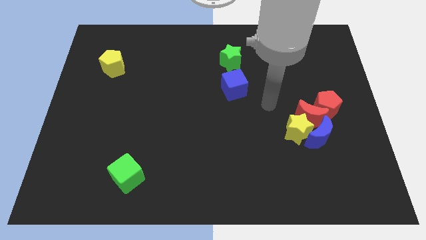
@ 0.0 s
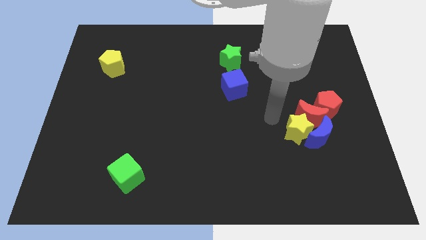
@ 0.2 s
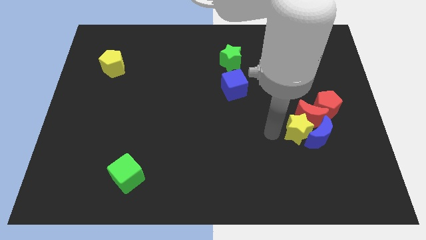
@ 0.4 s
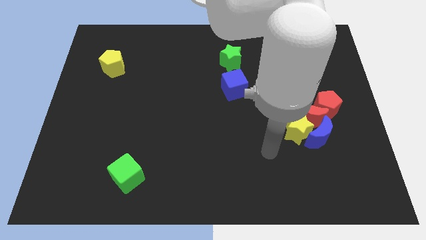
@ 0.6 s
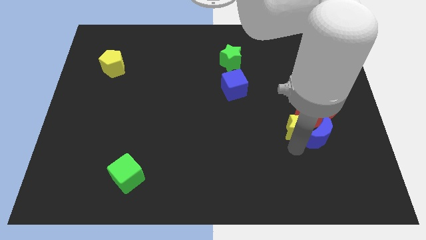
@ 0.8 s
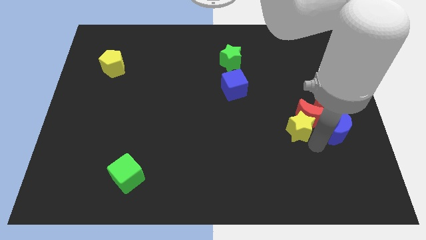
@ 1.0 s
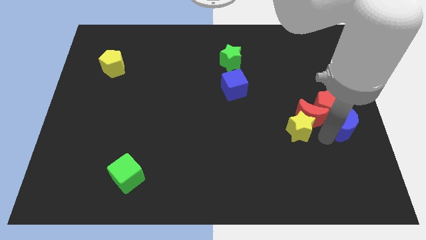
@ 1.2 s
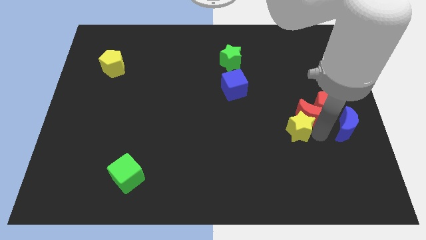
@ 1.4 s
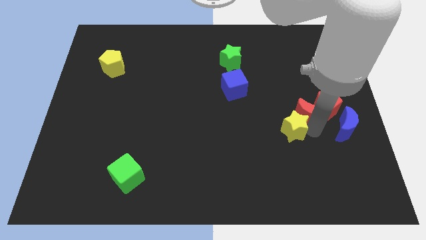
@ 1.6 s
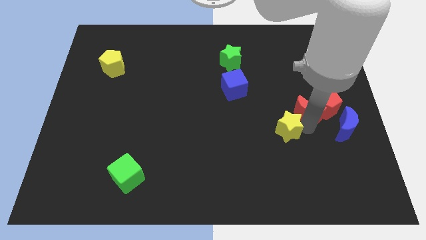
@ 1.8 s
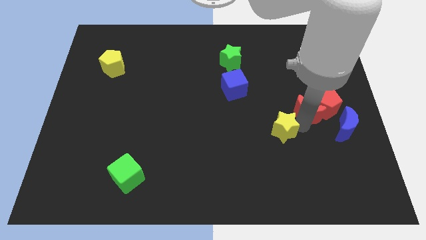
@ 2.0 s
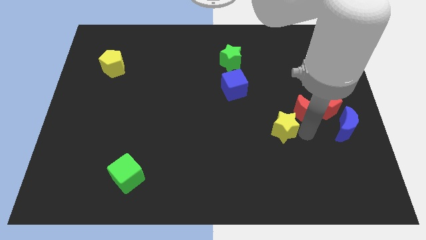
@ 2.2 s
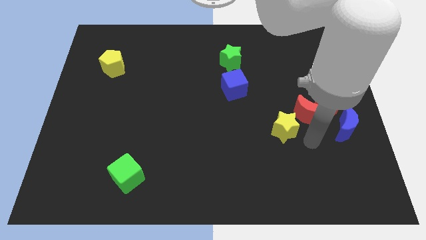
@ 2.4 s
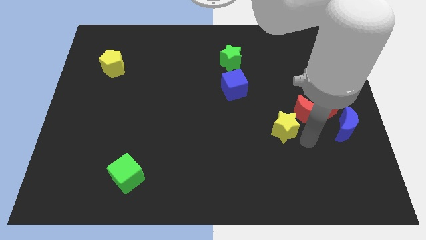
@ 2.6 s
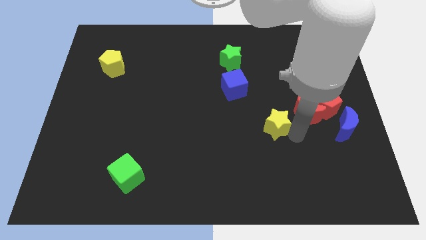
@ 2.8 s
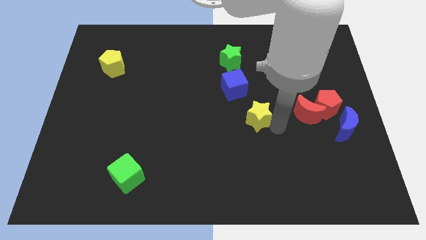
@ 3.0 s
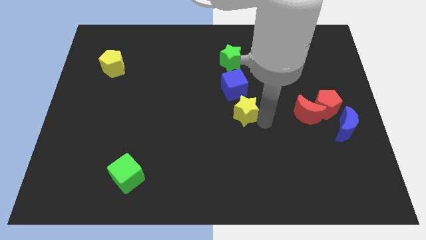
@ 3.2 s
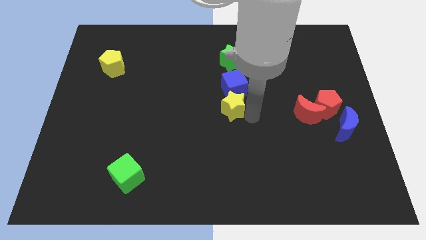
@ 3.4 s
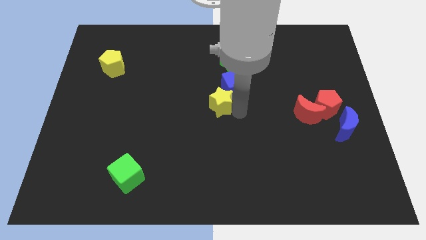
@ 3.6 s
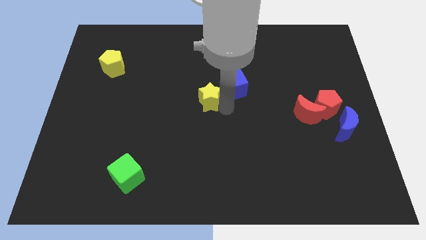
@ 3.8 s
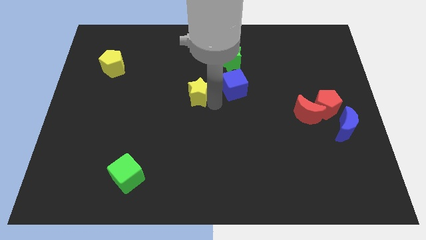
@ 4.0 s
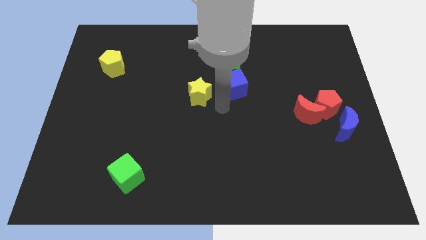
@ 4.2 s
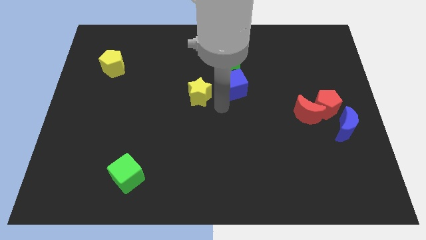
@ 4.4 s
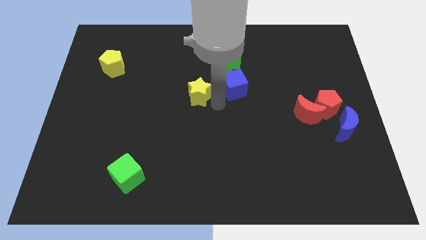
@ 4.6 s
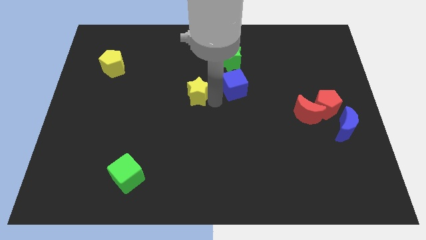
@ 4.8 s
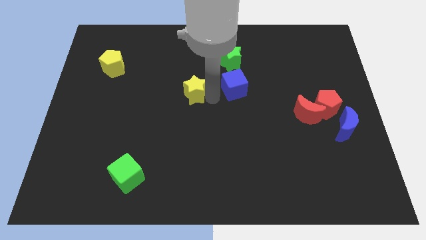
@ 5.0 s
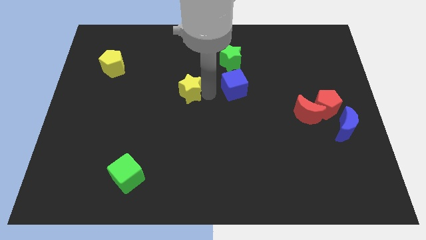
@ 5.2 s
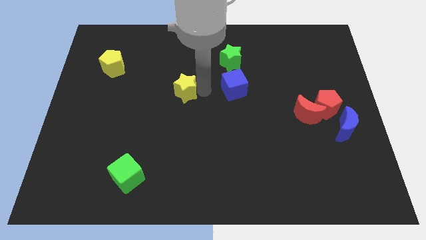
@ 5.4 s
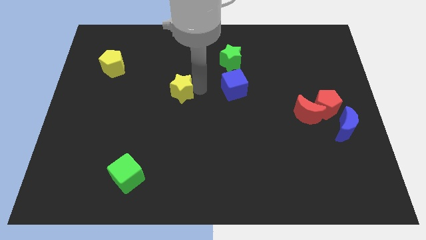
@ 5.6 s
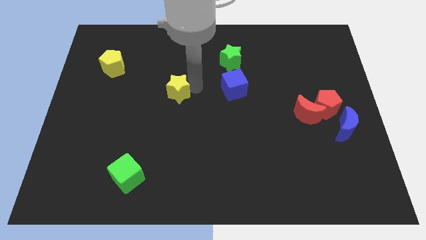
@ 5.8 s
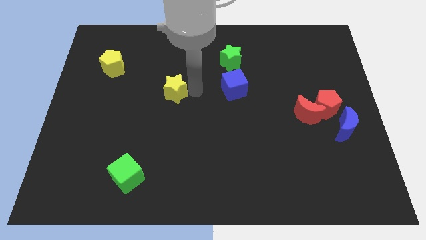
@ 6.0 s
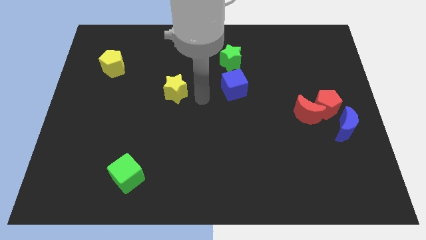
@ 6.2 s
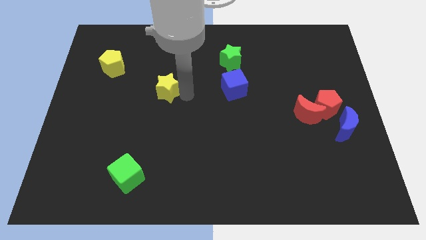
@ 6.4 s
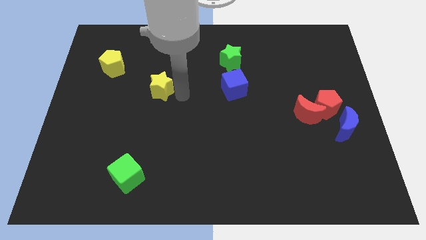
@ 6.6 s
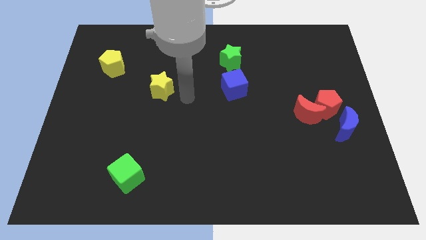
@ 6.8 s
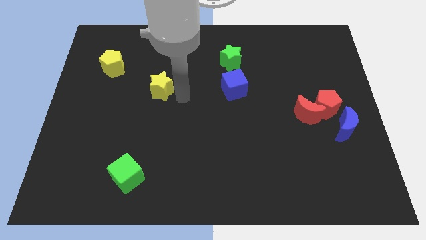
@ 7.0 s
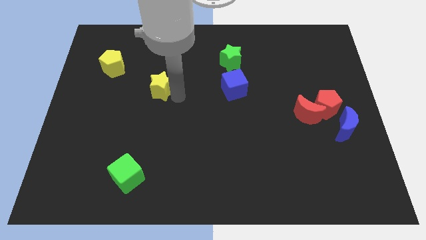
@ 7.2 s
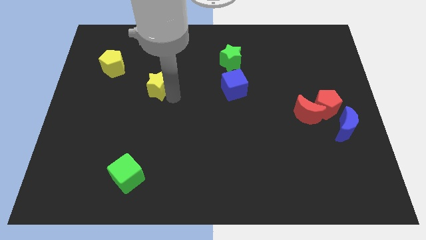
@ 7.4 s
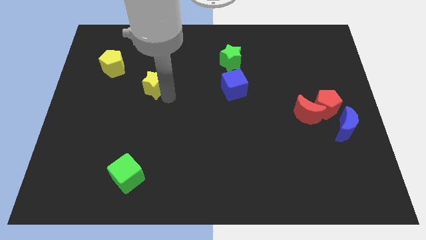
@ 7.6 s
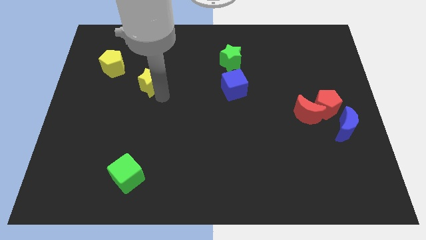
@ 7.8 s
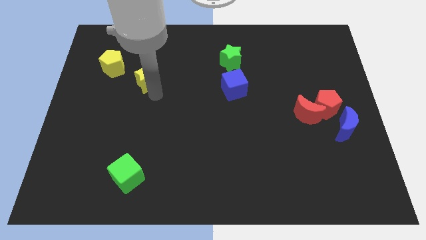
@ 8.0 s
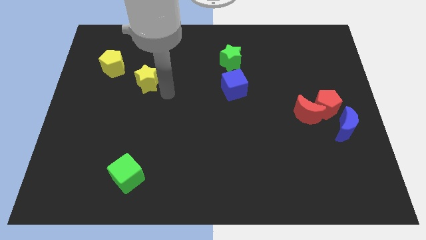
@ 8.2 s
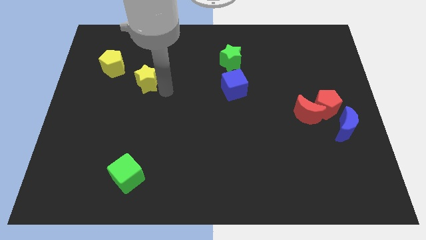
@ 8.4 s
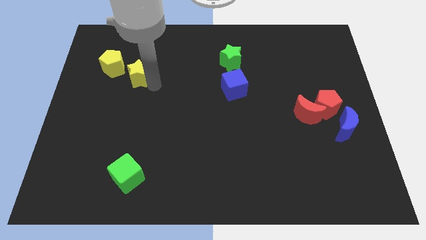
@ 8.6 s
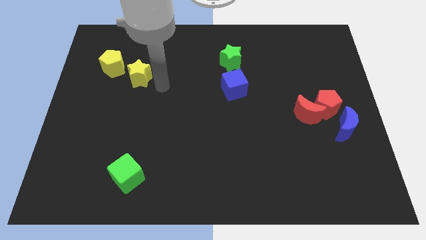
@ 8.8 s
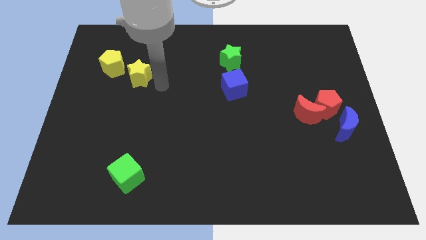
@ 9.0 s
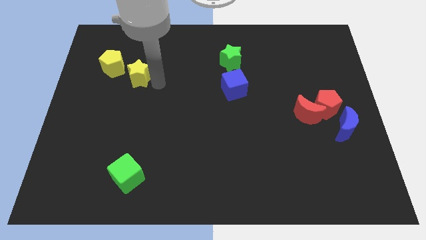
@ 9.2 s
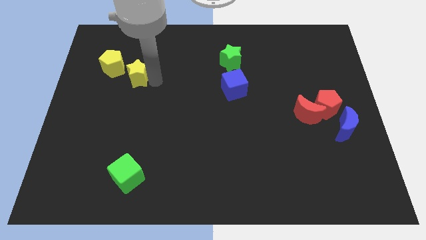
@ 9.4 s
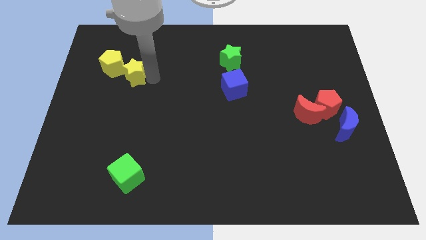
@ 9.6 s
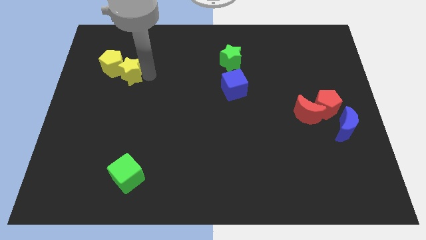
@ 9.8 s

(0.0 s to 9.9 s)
put the yellow star to the yellow pentagon

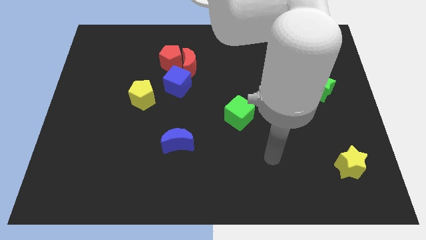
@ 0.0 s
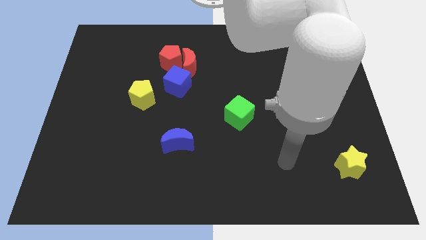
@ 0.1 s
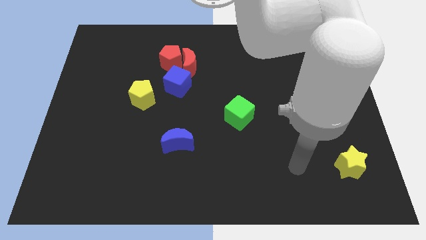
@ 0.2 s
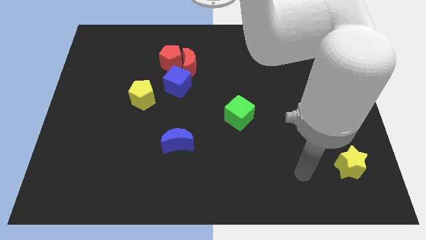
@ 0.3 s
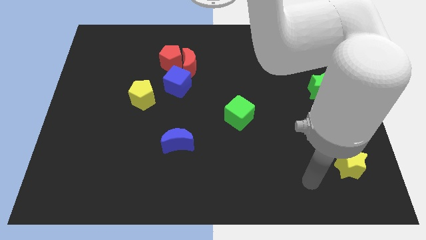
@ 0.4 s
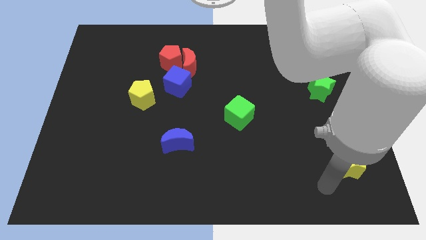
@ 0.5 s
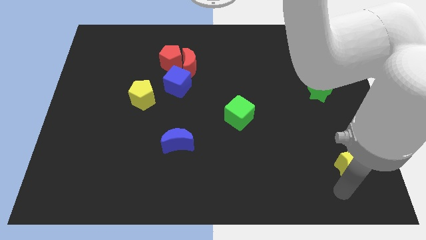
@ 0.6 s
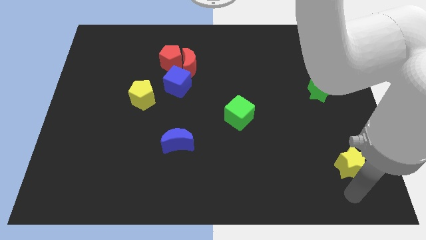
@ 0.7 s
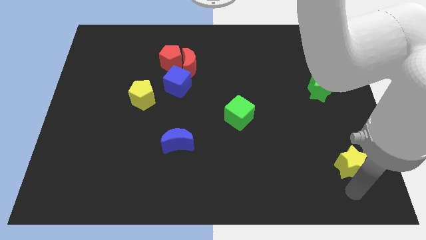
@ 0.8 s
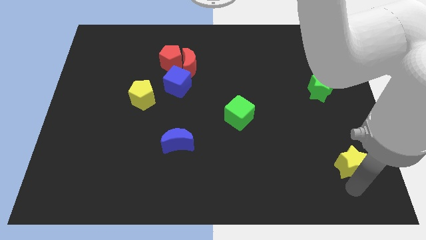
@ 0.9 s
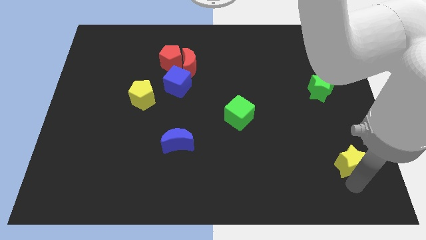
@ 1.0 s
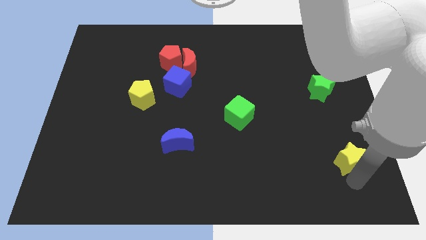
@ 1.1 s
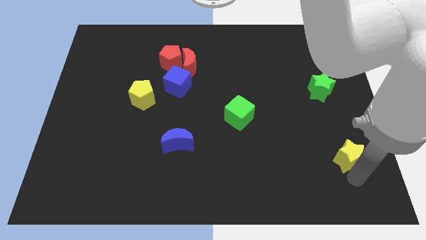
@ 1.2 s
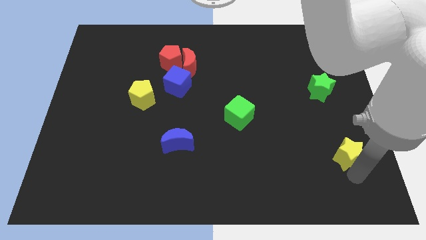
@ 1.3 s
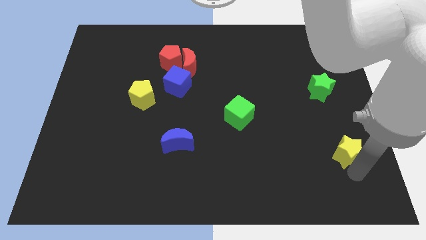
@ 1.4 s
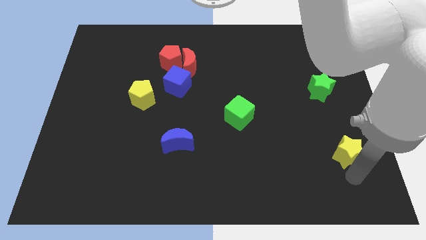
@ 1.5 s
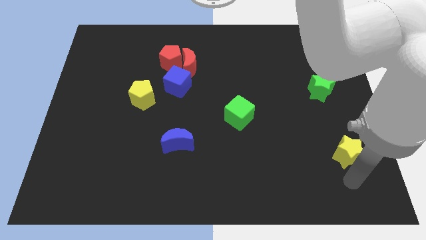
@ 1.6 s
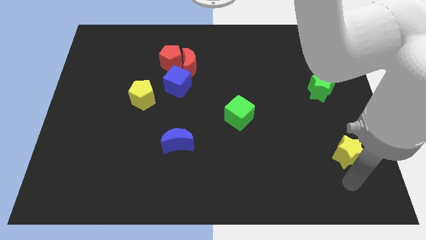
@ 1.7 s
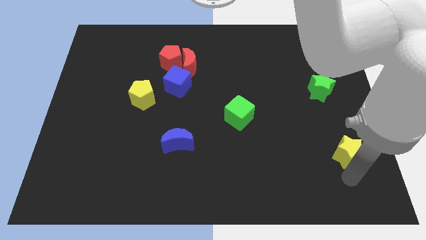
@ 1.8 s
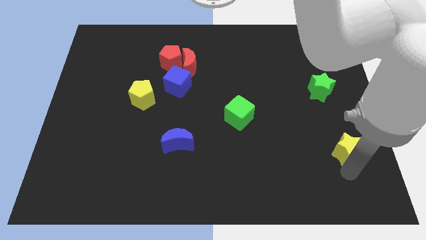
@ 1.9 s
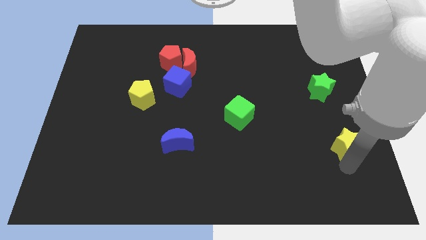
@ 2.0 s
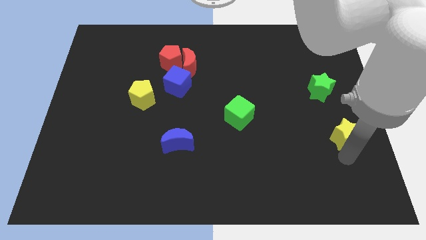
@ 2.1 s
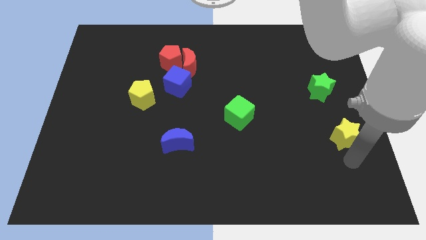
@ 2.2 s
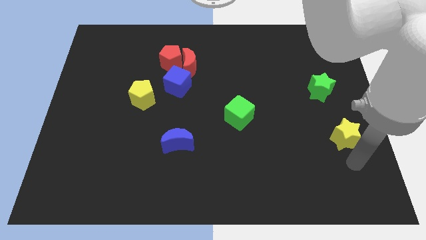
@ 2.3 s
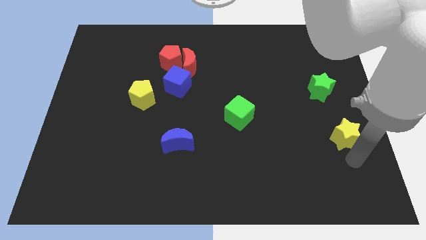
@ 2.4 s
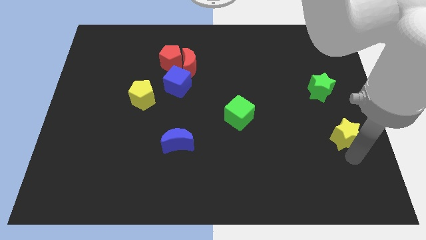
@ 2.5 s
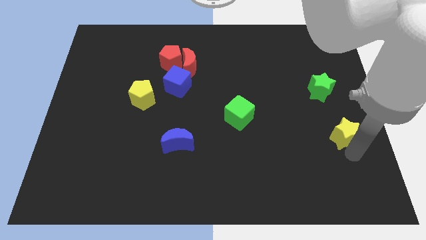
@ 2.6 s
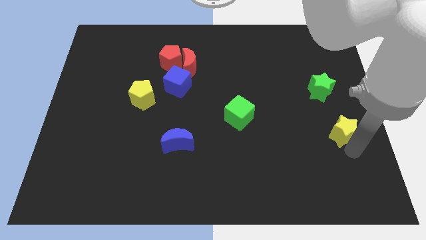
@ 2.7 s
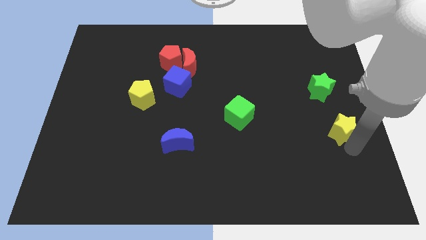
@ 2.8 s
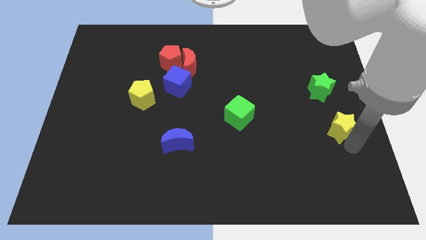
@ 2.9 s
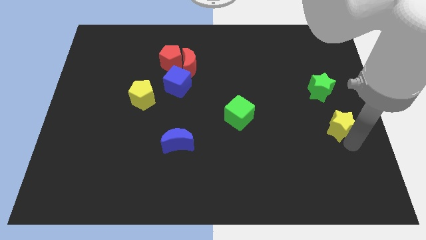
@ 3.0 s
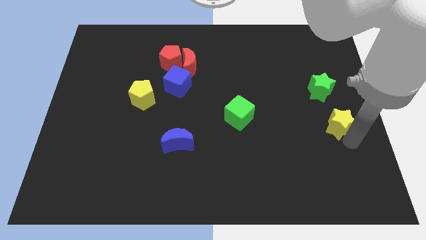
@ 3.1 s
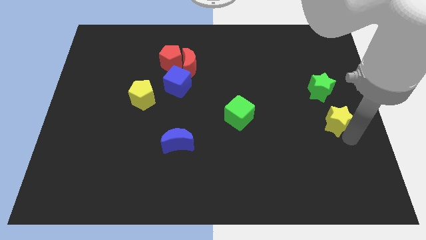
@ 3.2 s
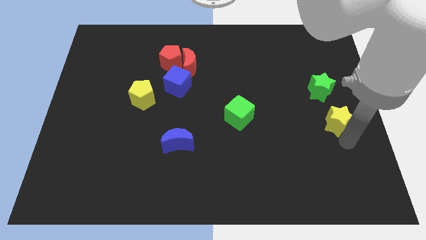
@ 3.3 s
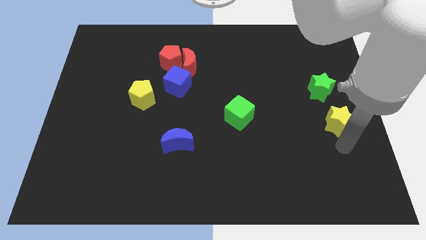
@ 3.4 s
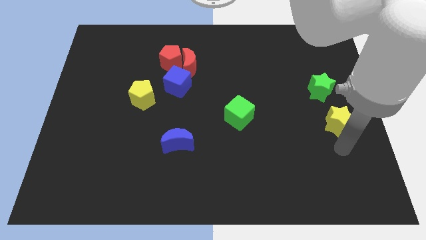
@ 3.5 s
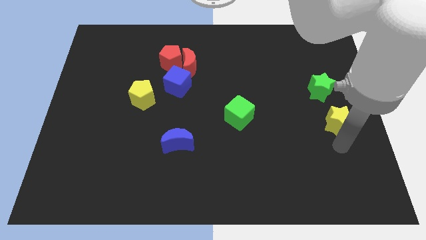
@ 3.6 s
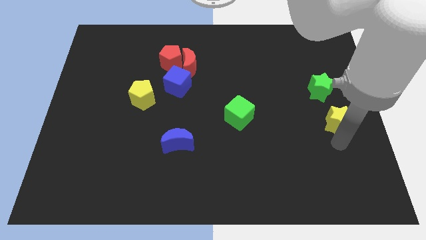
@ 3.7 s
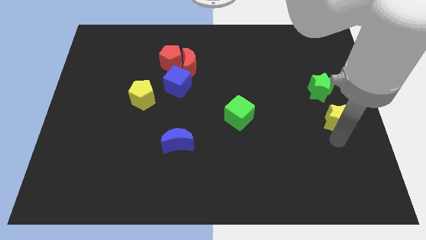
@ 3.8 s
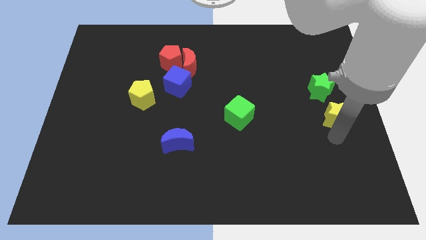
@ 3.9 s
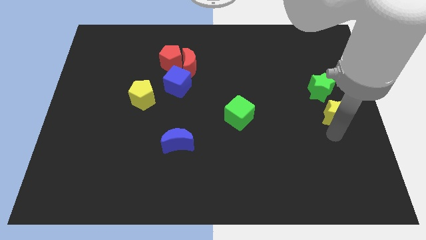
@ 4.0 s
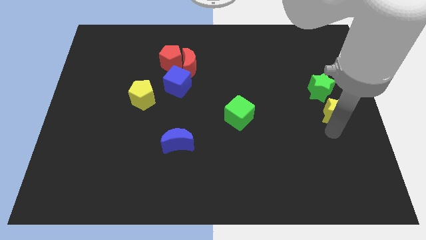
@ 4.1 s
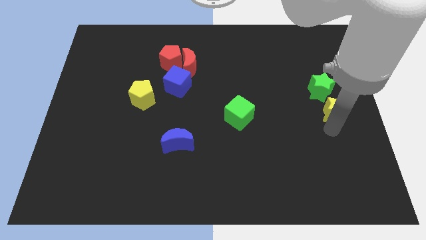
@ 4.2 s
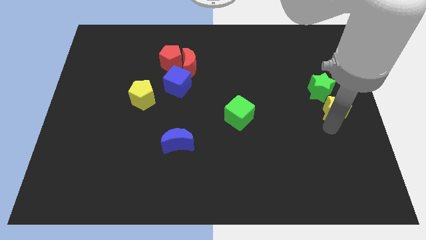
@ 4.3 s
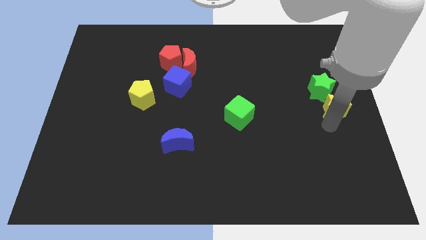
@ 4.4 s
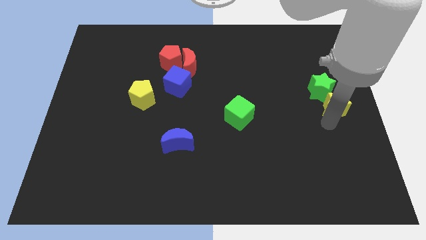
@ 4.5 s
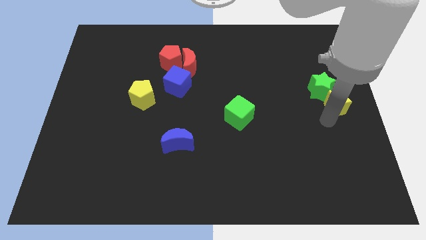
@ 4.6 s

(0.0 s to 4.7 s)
slide the yellow star next to the green star
